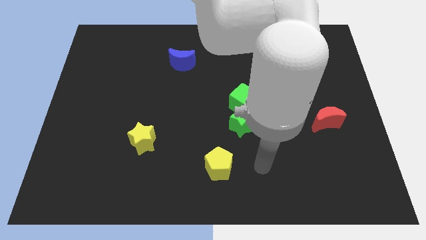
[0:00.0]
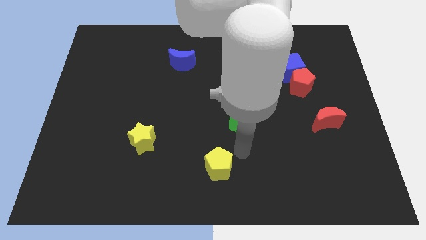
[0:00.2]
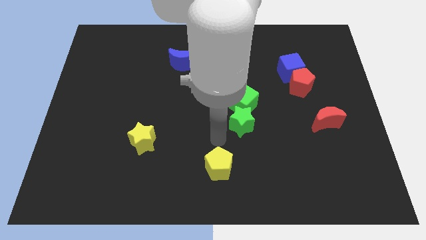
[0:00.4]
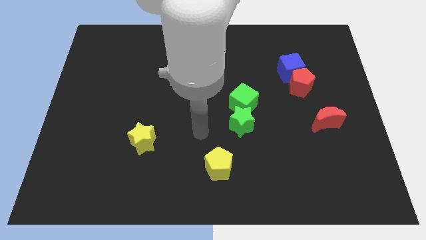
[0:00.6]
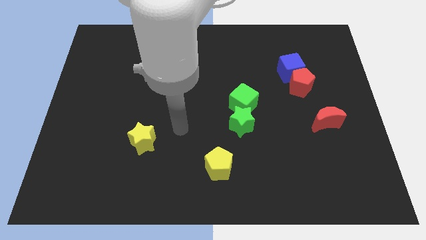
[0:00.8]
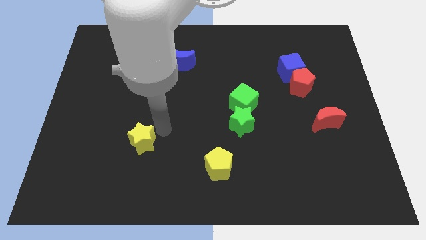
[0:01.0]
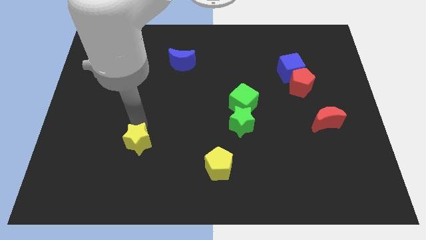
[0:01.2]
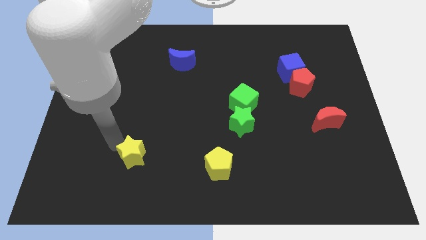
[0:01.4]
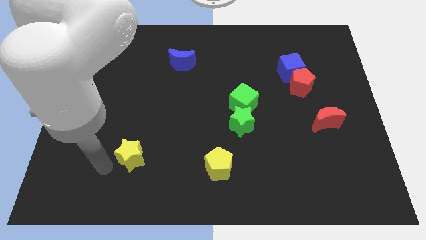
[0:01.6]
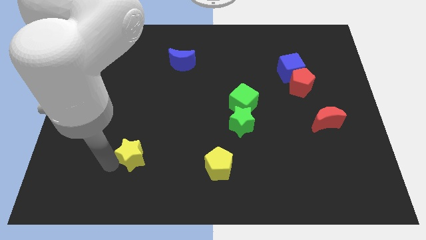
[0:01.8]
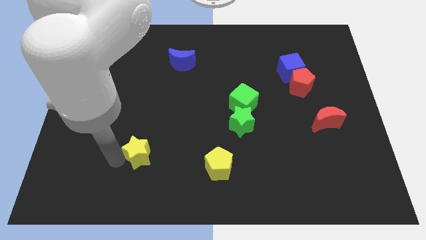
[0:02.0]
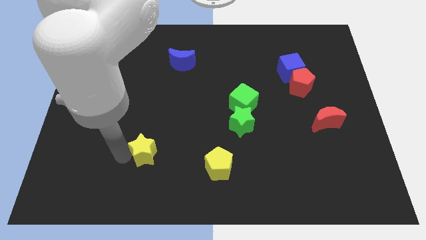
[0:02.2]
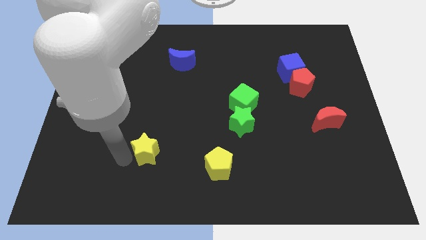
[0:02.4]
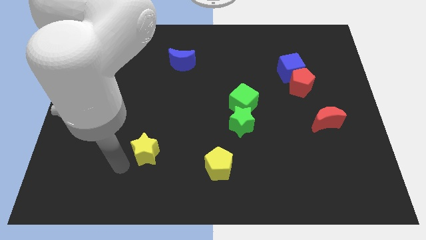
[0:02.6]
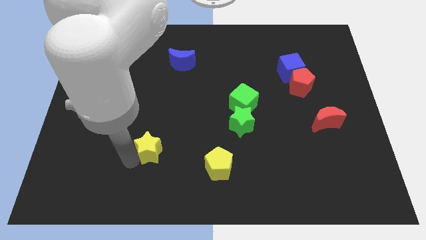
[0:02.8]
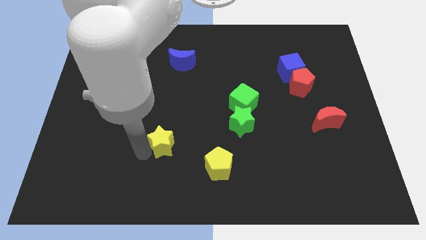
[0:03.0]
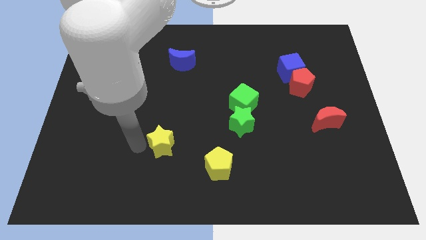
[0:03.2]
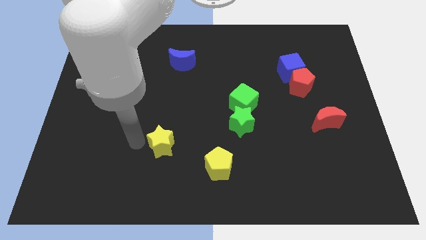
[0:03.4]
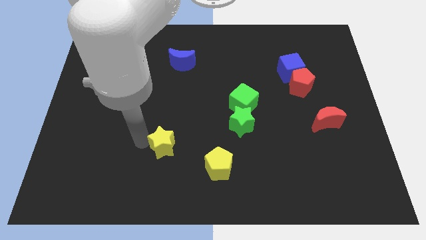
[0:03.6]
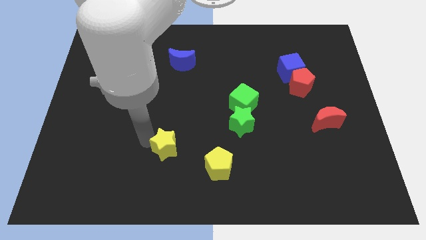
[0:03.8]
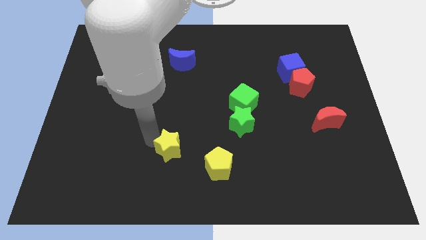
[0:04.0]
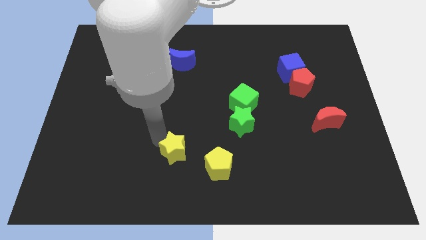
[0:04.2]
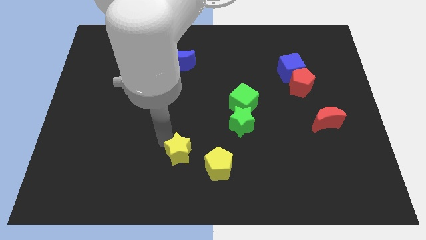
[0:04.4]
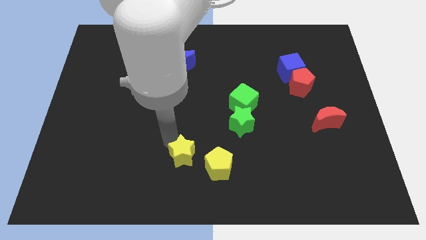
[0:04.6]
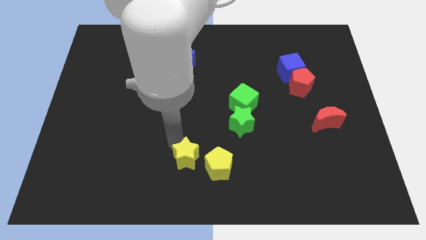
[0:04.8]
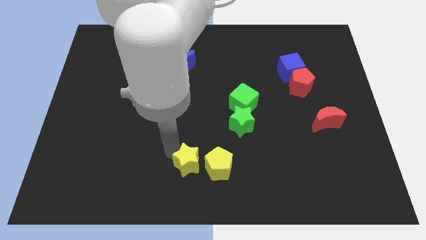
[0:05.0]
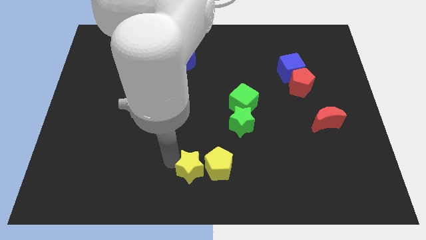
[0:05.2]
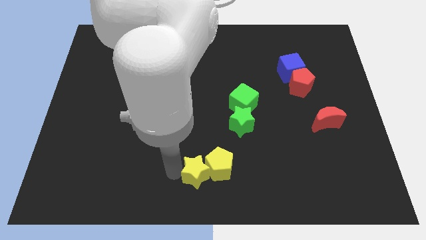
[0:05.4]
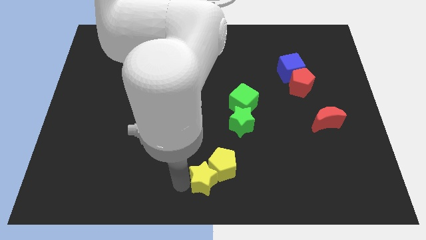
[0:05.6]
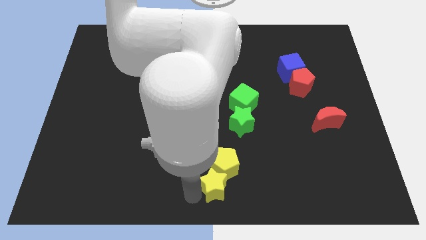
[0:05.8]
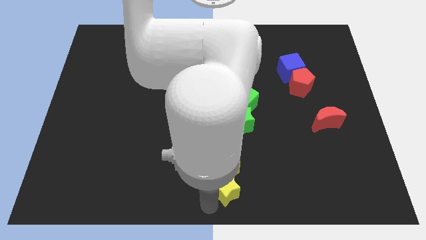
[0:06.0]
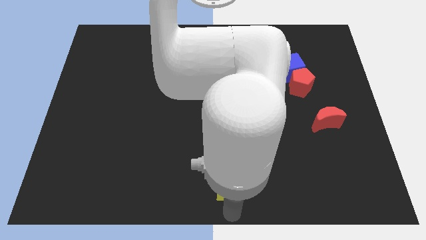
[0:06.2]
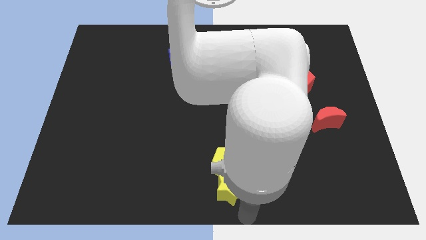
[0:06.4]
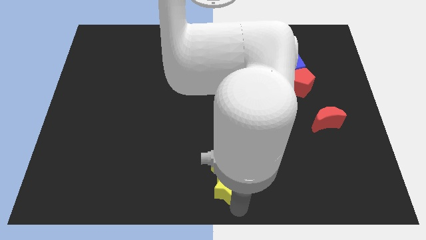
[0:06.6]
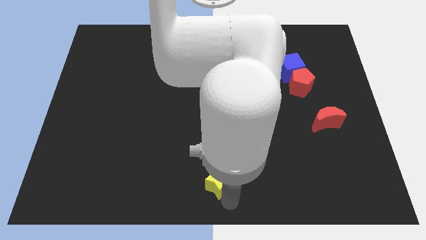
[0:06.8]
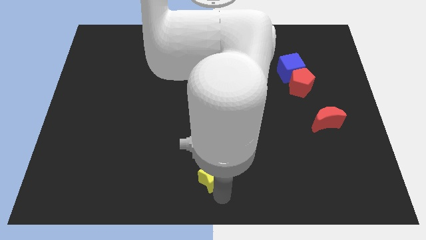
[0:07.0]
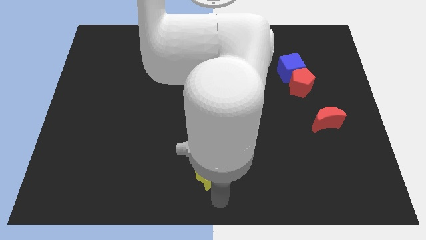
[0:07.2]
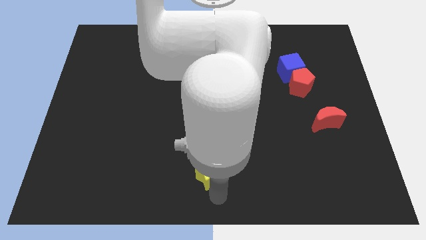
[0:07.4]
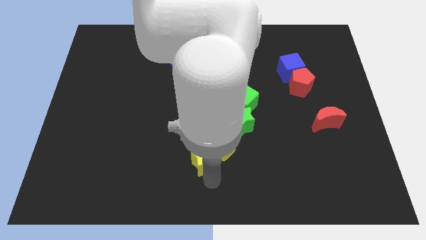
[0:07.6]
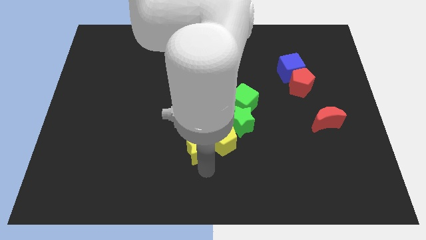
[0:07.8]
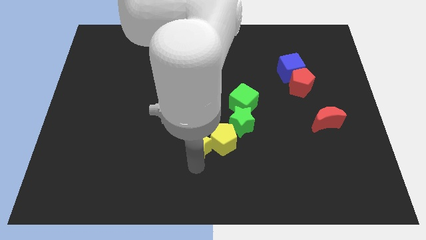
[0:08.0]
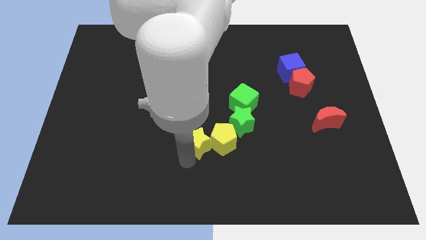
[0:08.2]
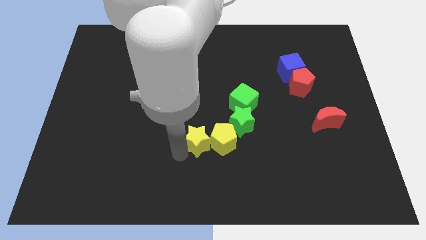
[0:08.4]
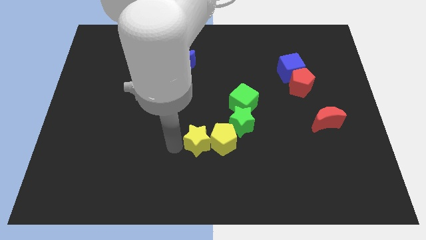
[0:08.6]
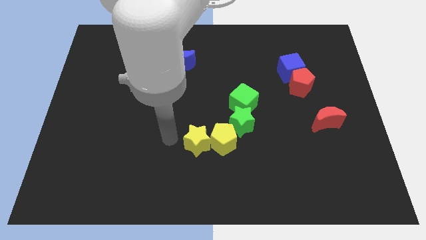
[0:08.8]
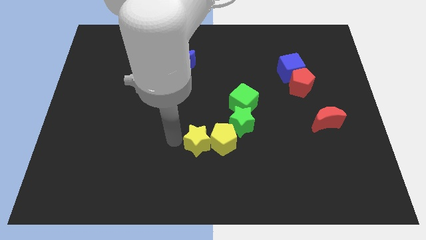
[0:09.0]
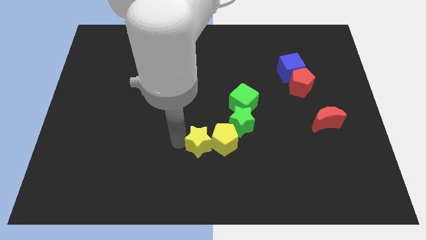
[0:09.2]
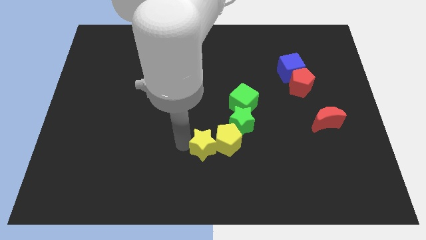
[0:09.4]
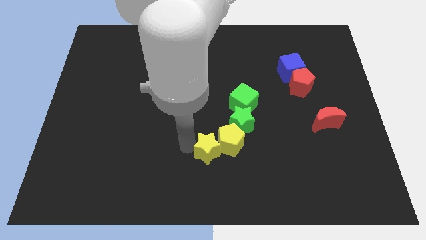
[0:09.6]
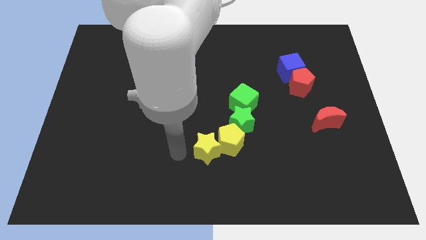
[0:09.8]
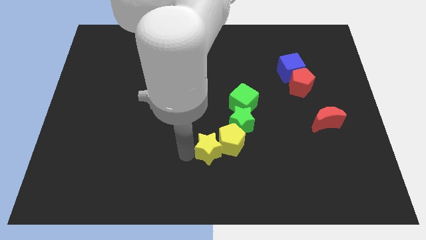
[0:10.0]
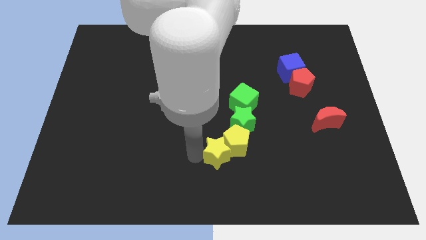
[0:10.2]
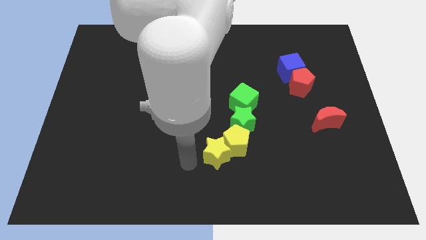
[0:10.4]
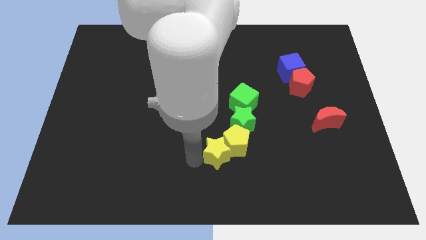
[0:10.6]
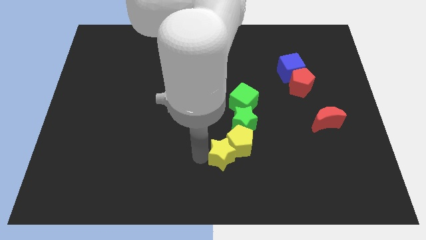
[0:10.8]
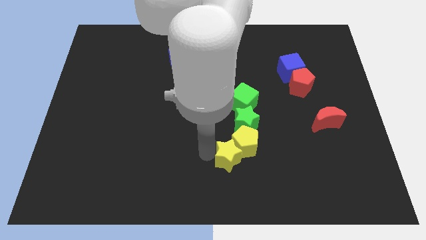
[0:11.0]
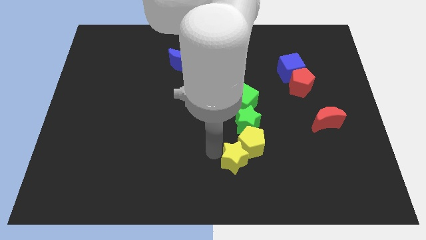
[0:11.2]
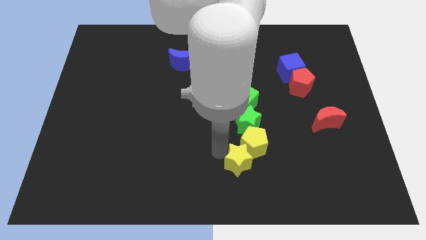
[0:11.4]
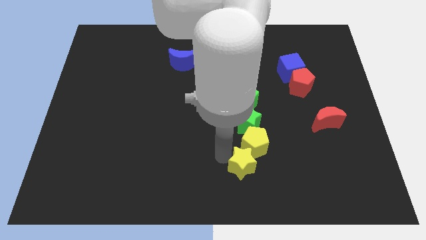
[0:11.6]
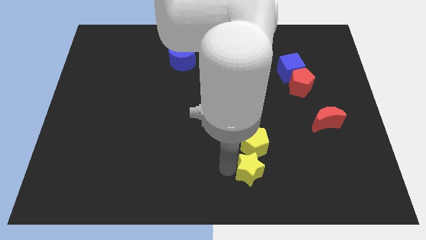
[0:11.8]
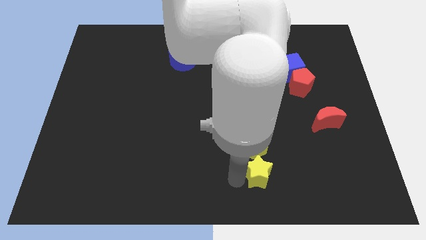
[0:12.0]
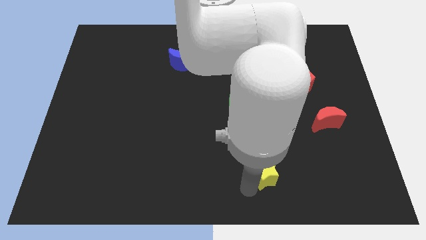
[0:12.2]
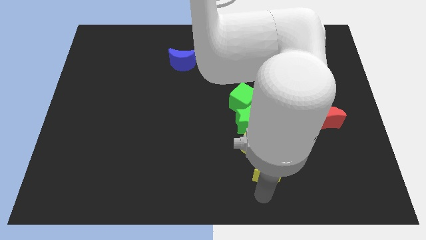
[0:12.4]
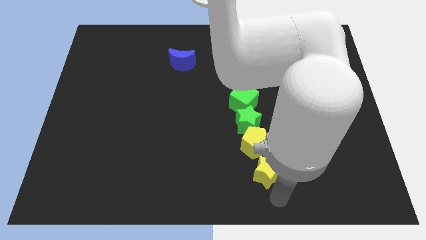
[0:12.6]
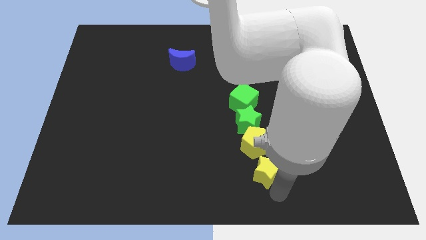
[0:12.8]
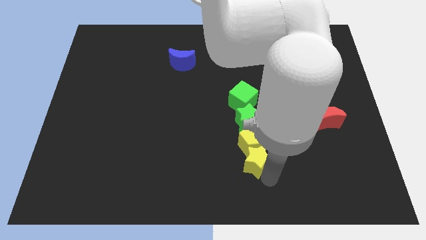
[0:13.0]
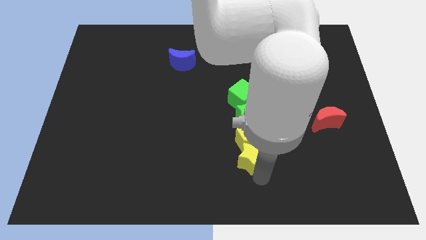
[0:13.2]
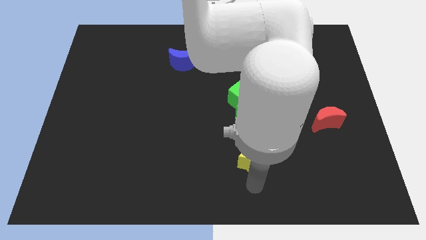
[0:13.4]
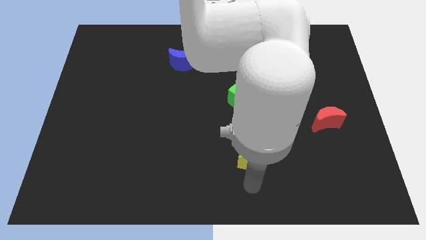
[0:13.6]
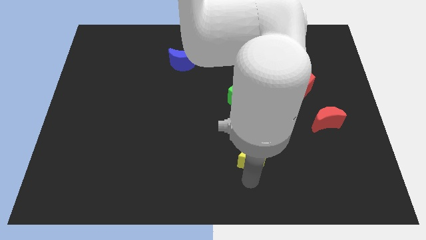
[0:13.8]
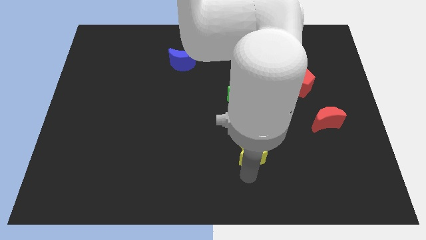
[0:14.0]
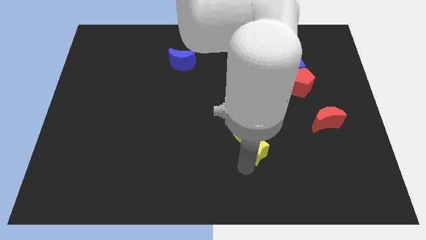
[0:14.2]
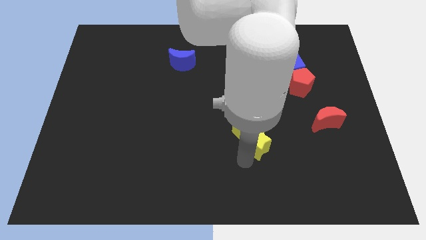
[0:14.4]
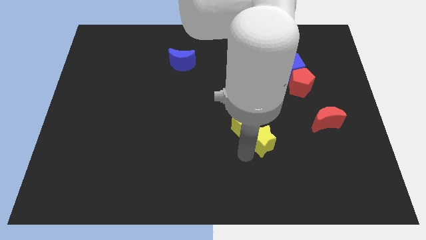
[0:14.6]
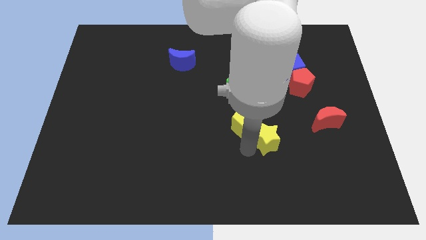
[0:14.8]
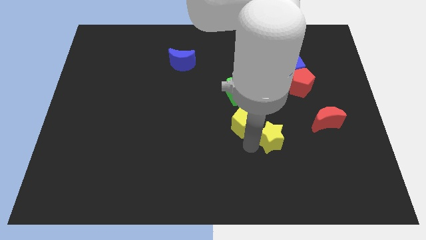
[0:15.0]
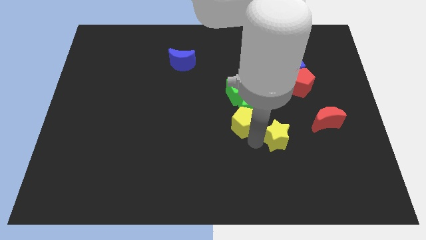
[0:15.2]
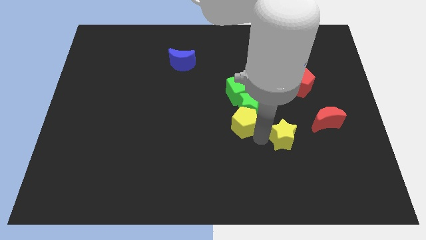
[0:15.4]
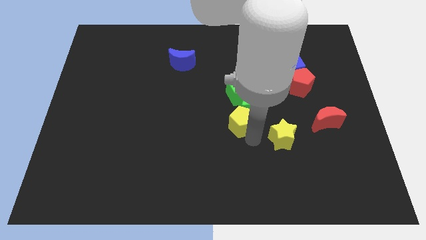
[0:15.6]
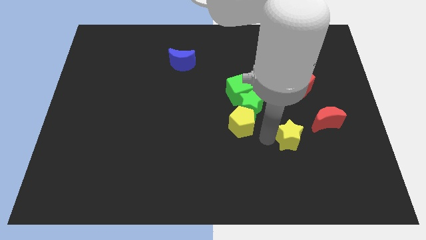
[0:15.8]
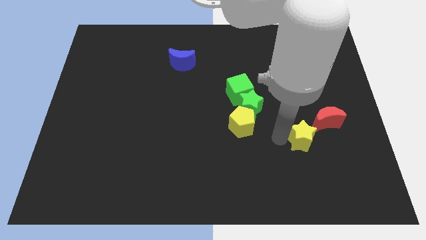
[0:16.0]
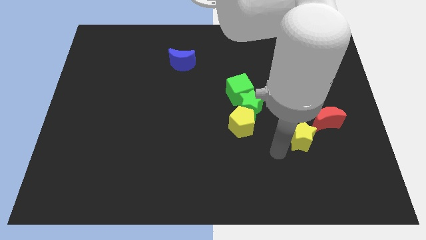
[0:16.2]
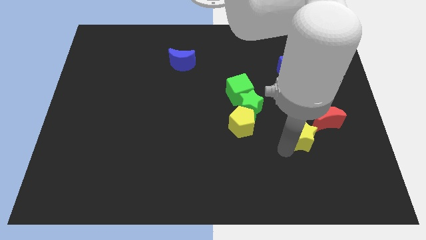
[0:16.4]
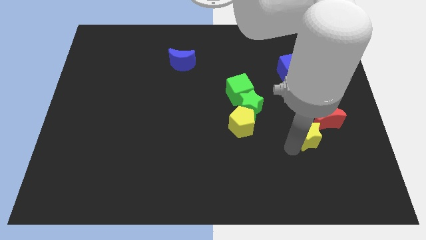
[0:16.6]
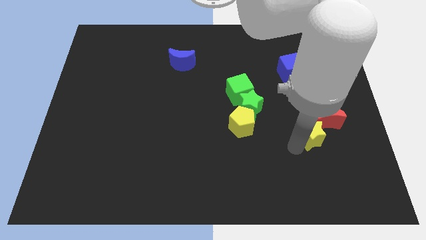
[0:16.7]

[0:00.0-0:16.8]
push the yellow star to the red moon
